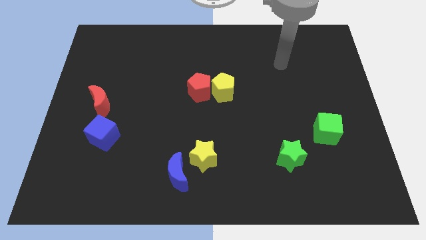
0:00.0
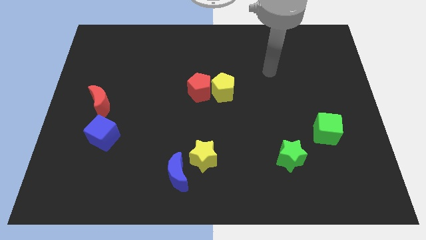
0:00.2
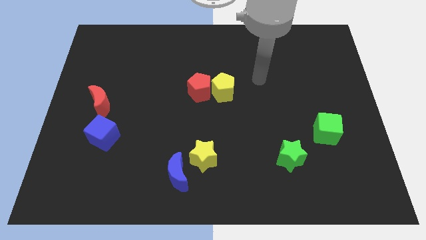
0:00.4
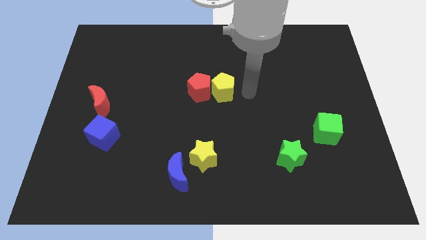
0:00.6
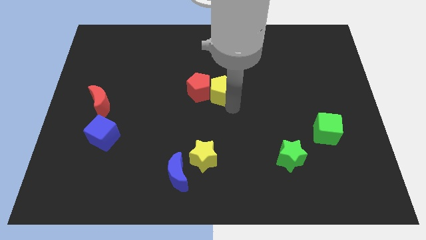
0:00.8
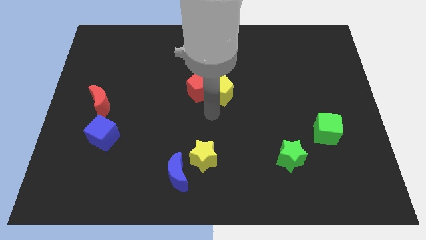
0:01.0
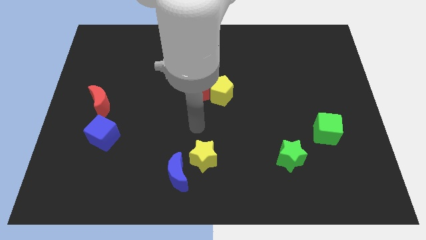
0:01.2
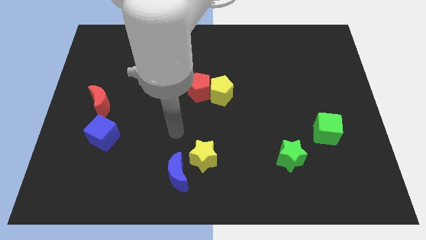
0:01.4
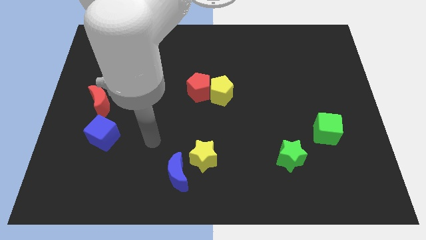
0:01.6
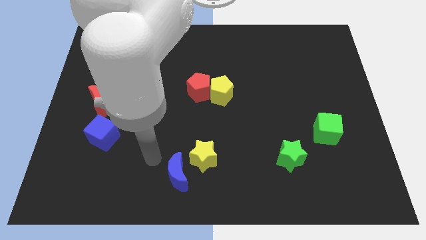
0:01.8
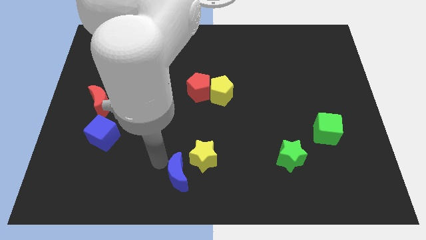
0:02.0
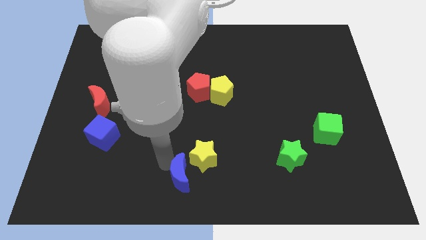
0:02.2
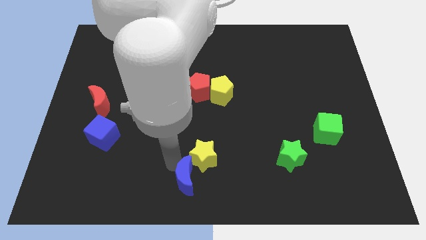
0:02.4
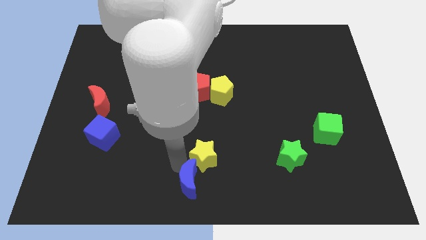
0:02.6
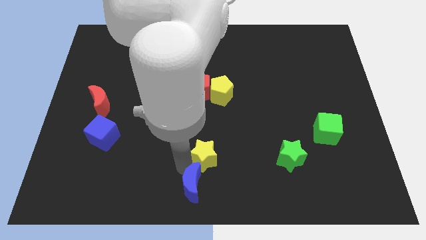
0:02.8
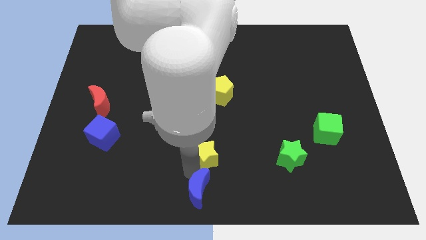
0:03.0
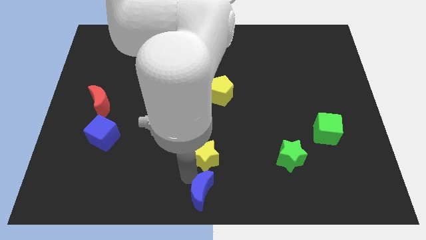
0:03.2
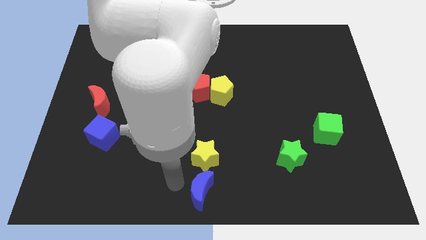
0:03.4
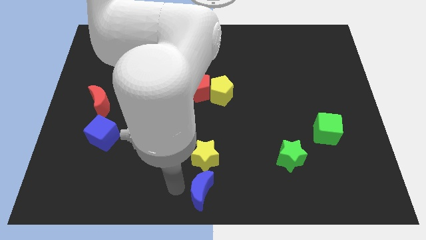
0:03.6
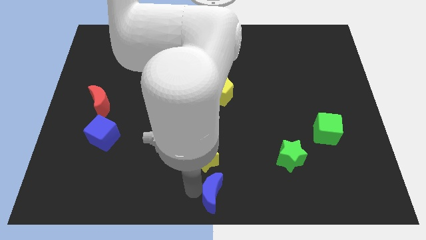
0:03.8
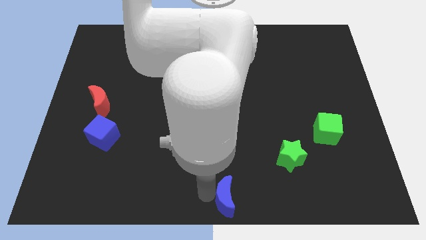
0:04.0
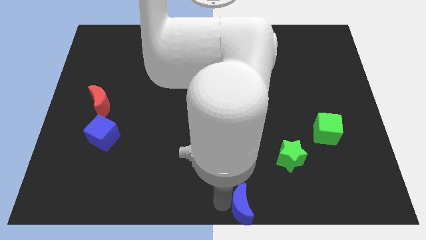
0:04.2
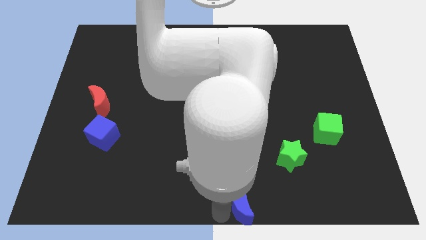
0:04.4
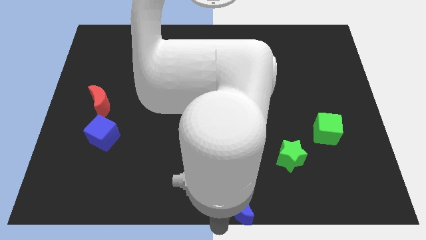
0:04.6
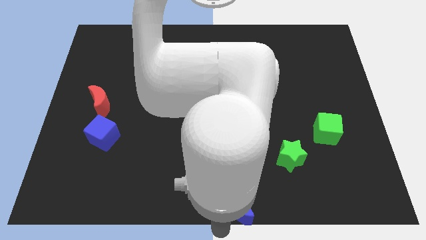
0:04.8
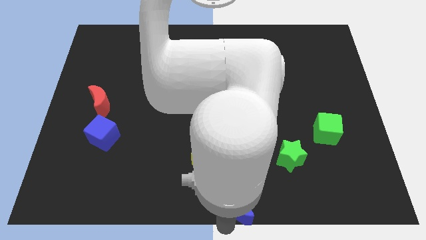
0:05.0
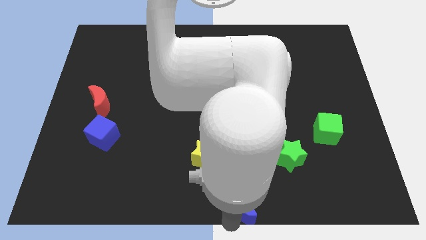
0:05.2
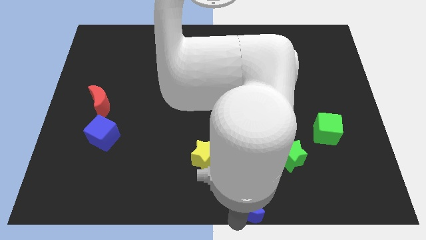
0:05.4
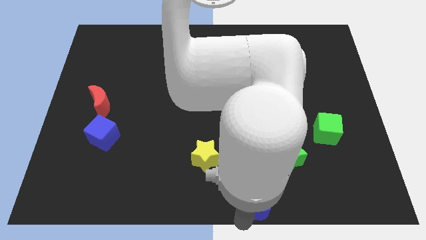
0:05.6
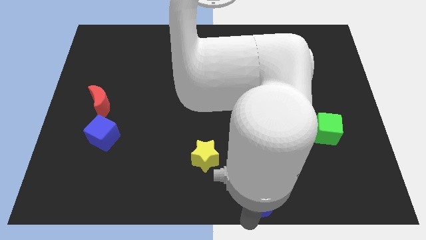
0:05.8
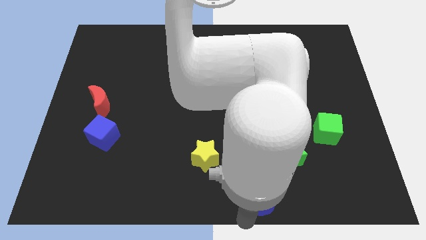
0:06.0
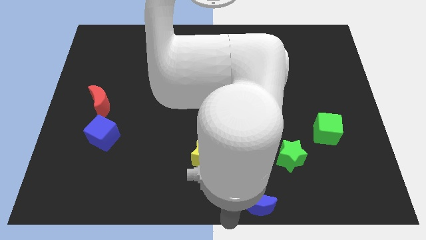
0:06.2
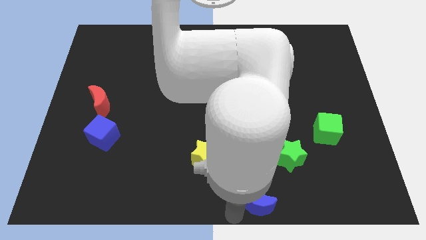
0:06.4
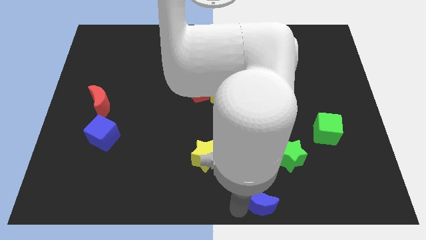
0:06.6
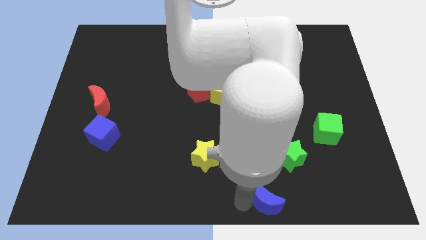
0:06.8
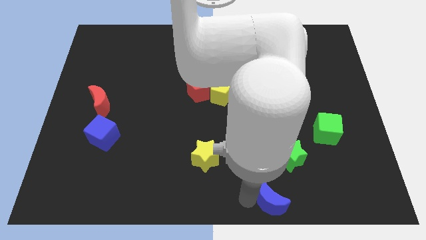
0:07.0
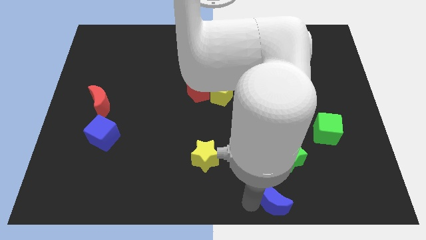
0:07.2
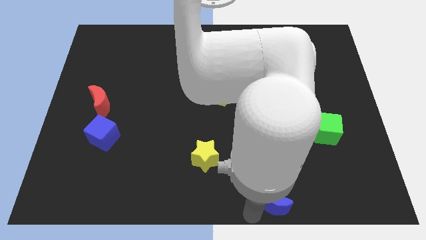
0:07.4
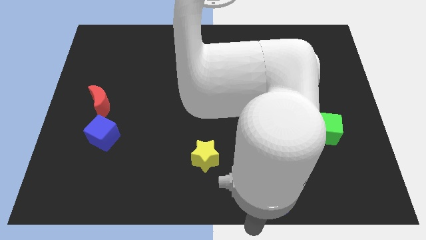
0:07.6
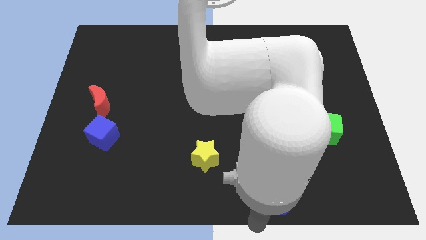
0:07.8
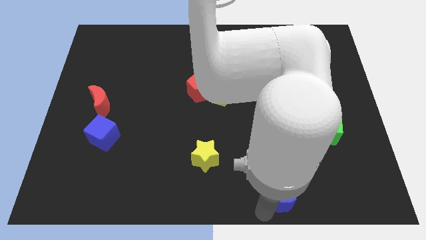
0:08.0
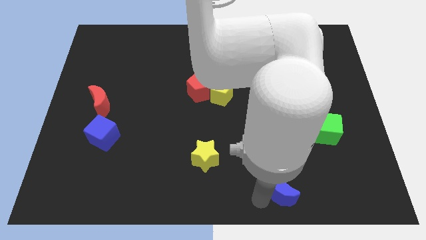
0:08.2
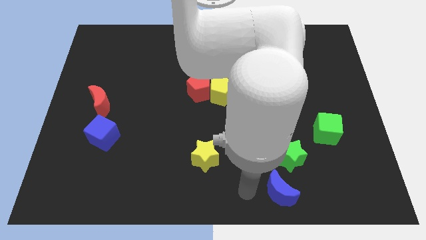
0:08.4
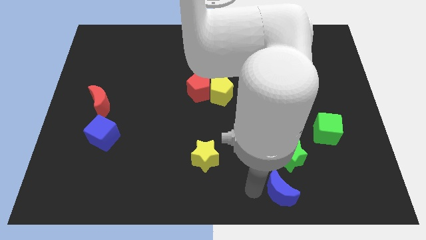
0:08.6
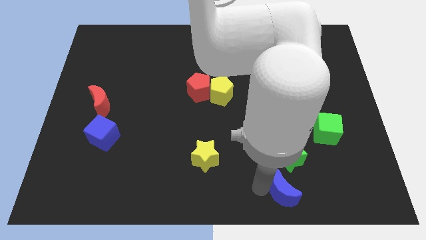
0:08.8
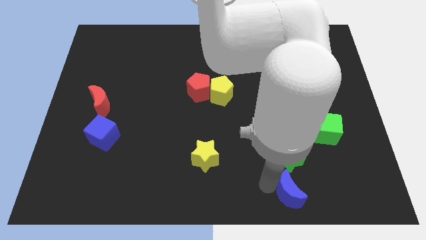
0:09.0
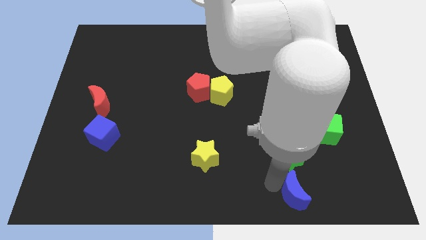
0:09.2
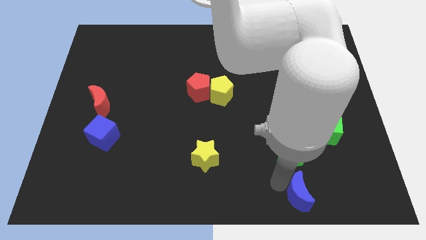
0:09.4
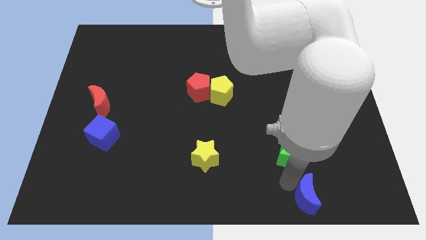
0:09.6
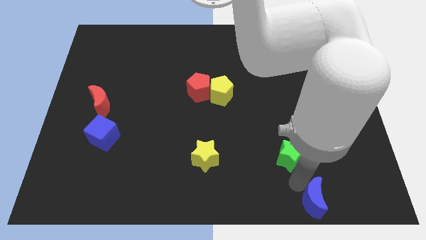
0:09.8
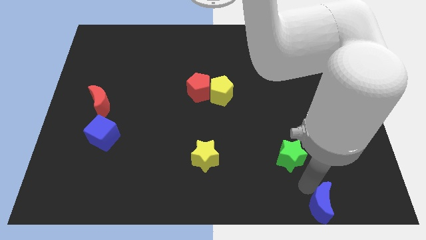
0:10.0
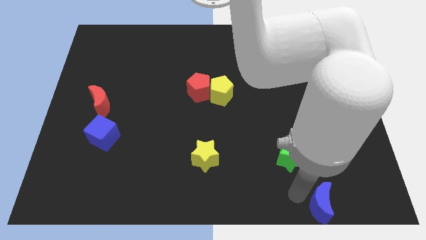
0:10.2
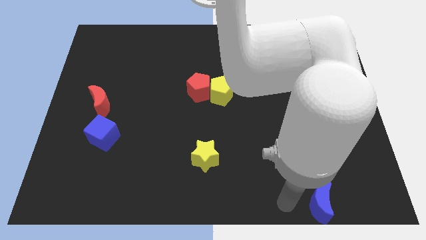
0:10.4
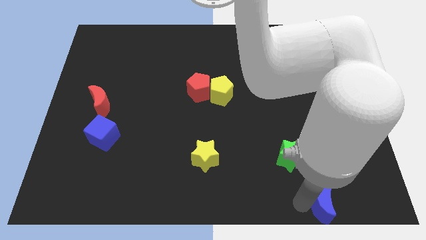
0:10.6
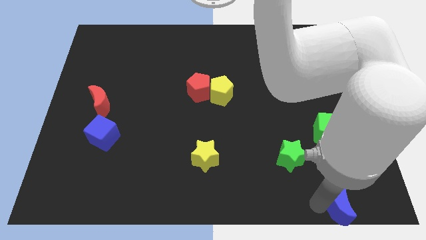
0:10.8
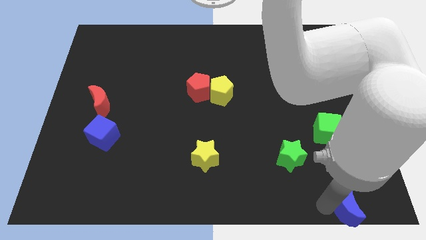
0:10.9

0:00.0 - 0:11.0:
put the blue moon to the bottom right

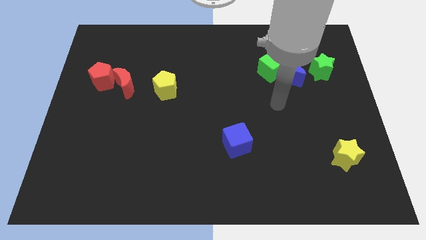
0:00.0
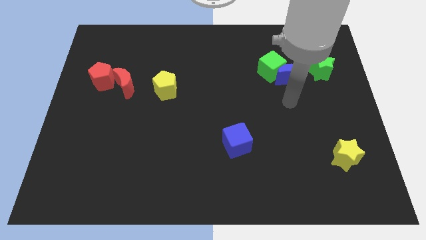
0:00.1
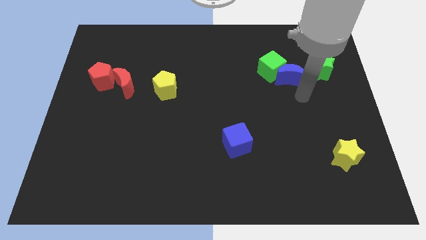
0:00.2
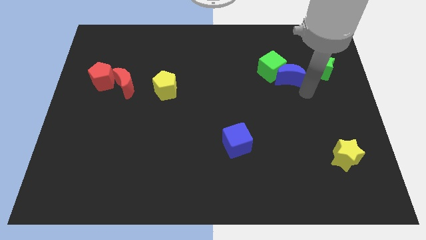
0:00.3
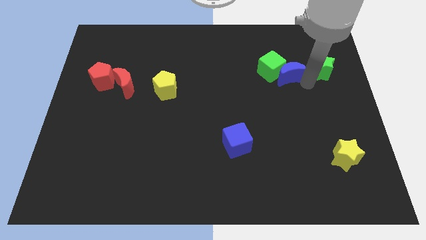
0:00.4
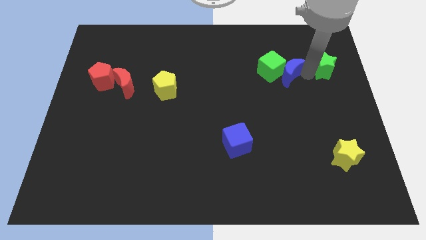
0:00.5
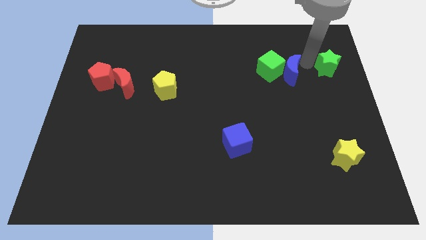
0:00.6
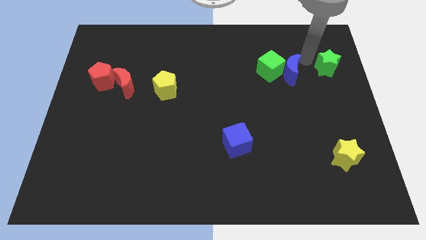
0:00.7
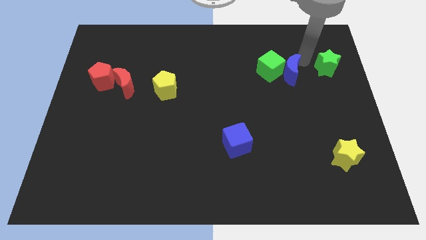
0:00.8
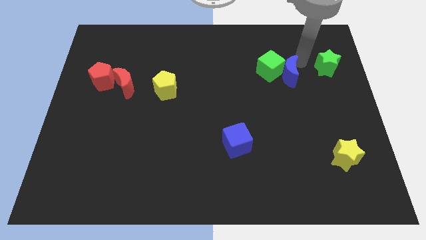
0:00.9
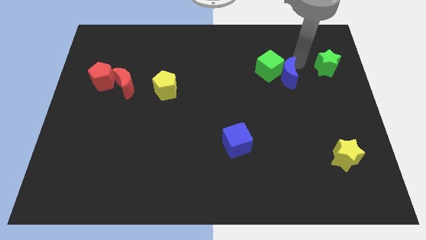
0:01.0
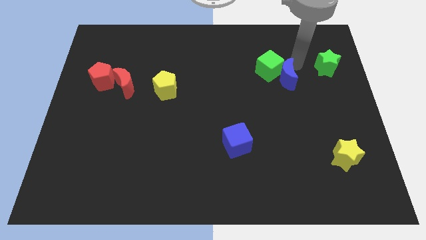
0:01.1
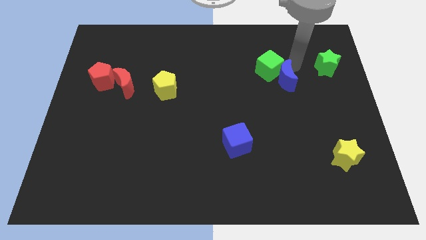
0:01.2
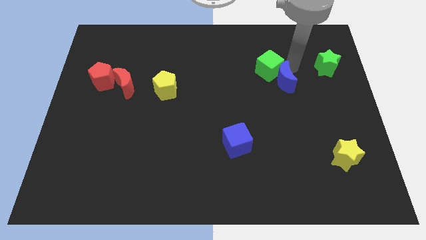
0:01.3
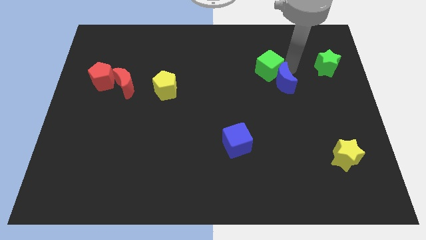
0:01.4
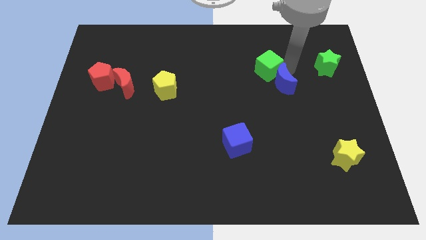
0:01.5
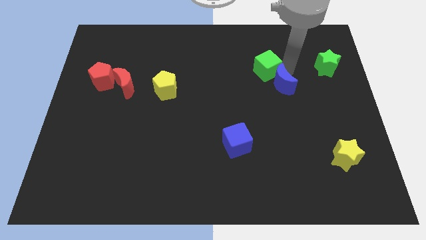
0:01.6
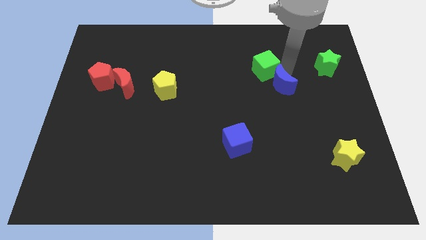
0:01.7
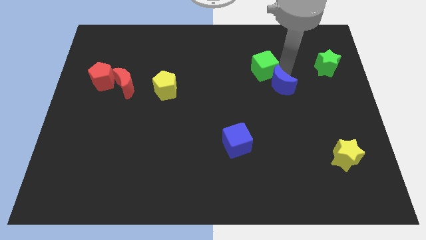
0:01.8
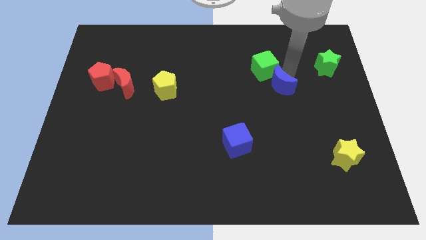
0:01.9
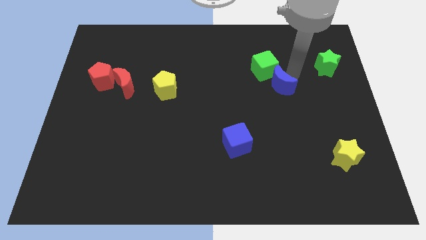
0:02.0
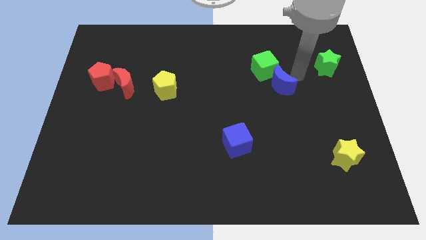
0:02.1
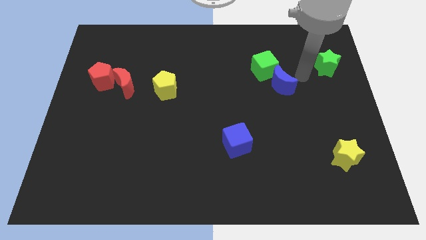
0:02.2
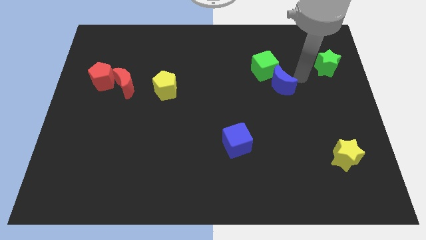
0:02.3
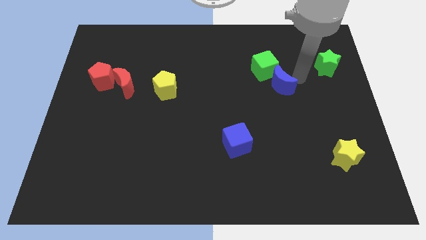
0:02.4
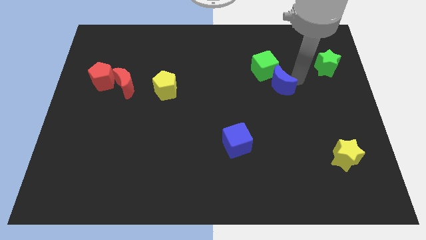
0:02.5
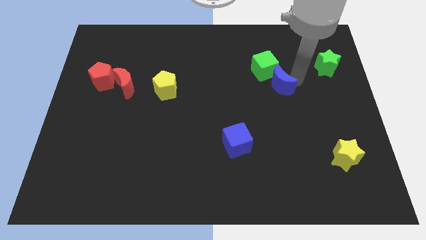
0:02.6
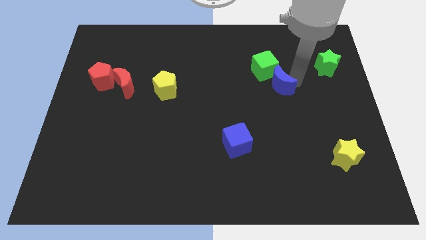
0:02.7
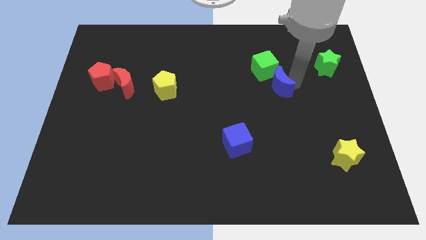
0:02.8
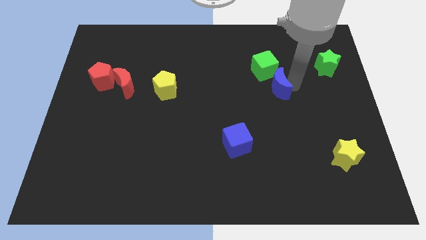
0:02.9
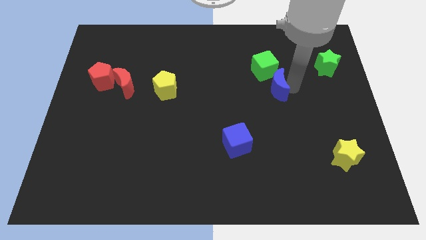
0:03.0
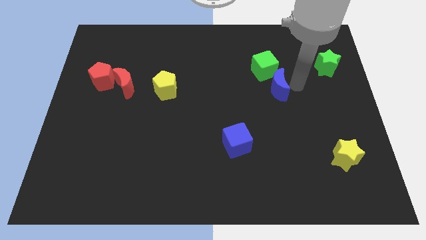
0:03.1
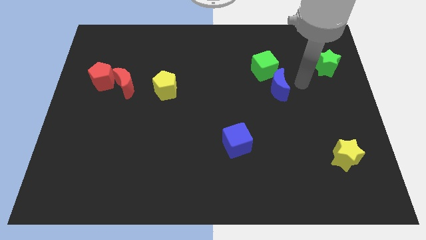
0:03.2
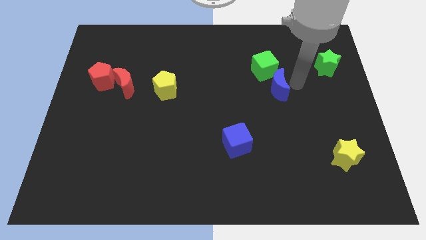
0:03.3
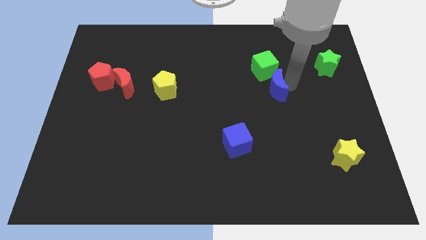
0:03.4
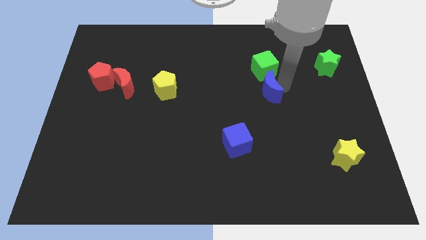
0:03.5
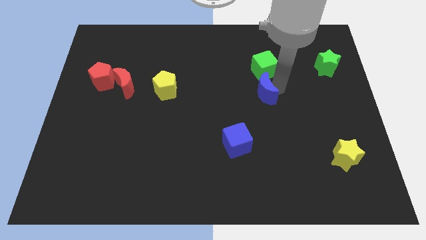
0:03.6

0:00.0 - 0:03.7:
put the blue moon to the center
